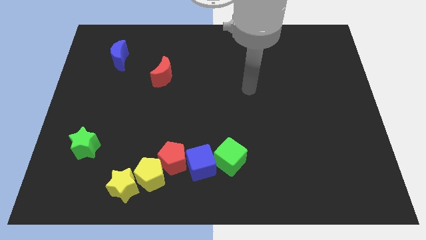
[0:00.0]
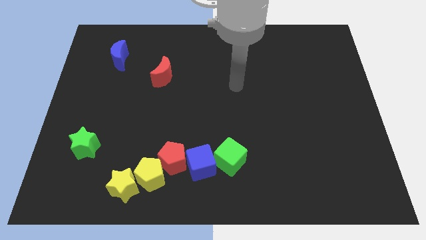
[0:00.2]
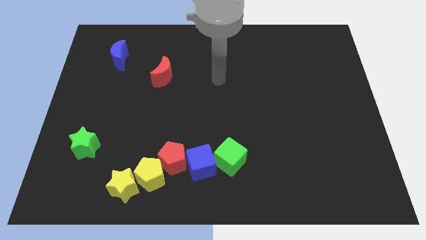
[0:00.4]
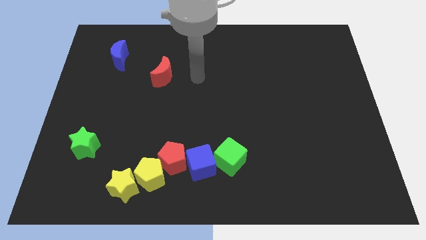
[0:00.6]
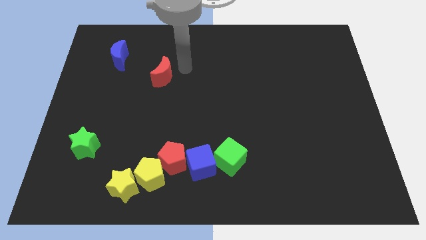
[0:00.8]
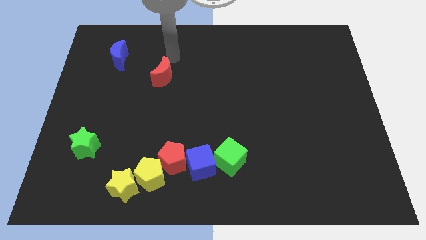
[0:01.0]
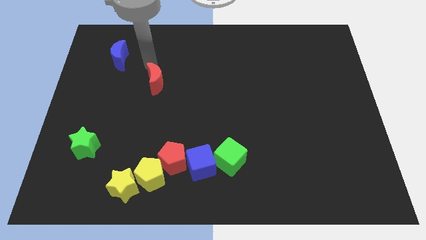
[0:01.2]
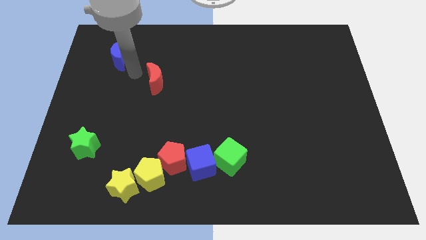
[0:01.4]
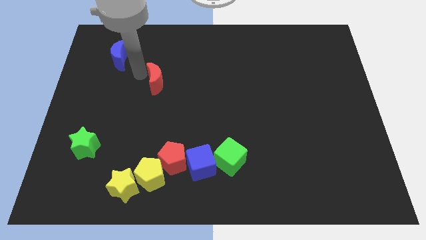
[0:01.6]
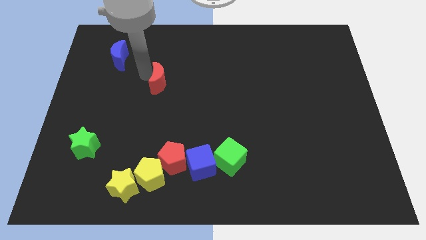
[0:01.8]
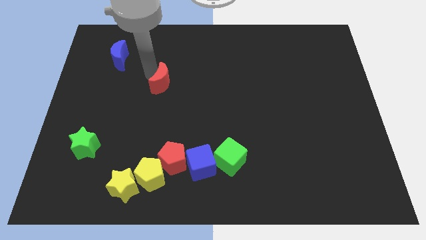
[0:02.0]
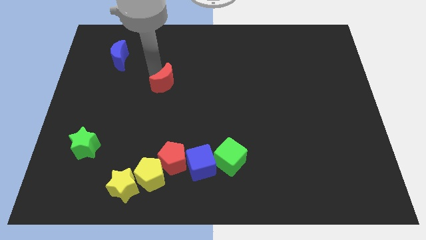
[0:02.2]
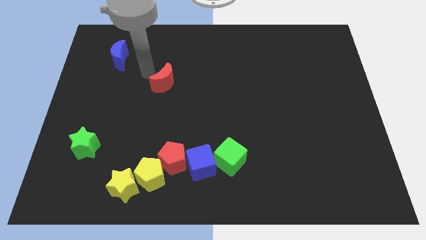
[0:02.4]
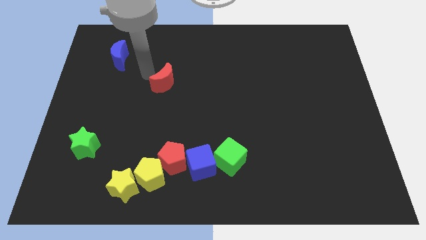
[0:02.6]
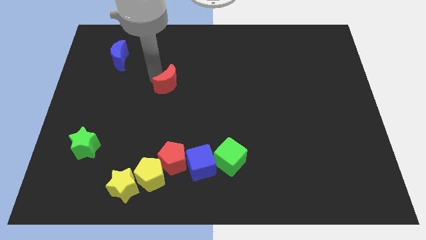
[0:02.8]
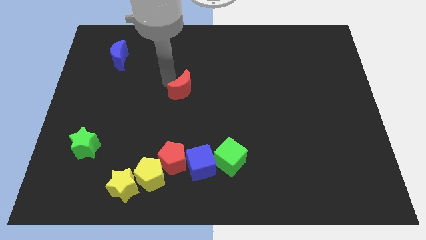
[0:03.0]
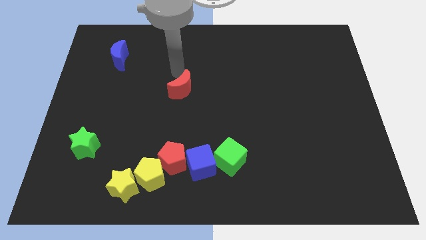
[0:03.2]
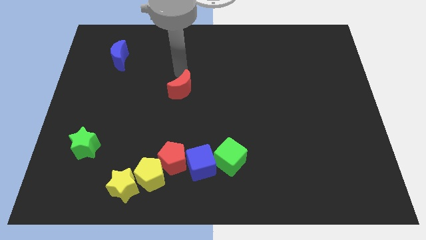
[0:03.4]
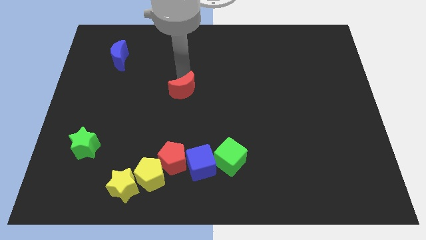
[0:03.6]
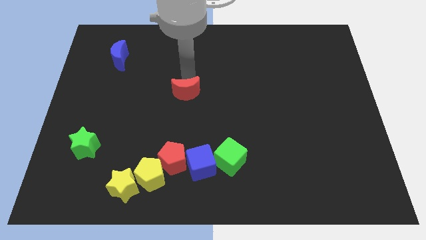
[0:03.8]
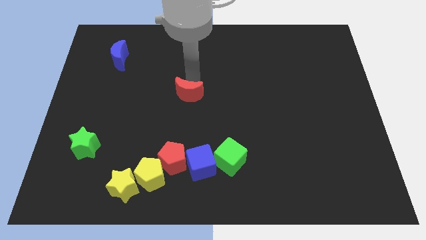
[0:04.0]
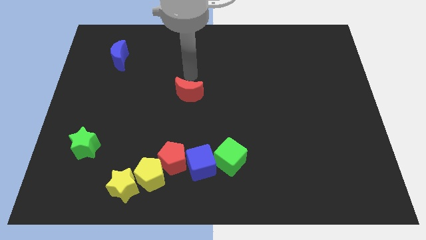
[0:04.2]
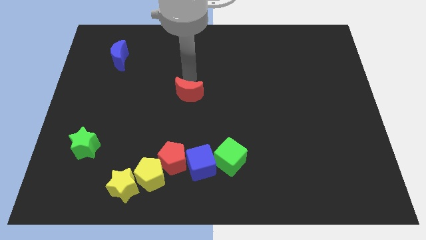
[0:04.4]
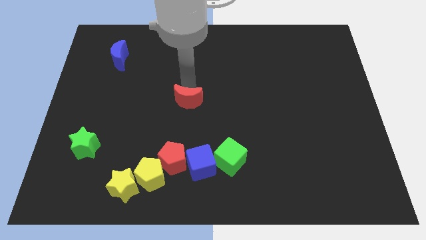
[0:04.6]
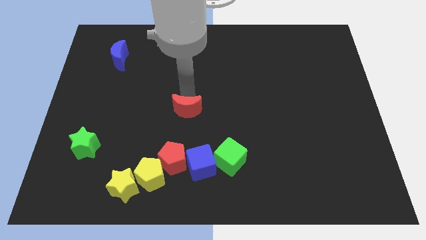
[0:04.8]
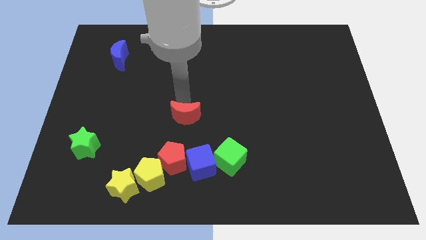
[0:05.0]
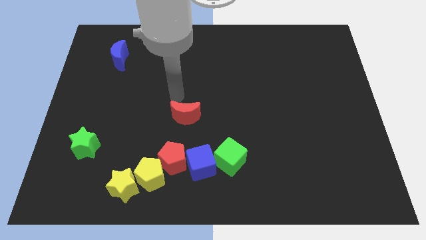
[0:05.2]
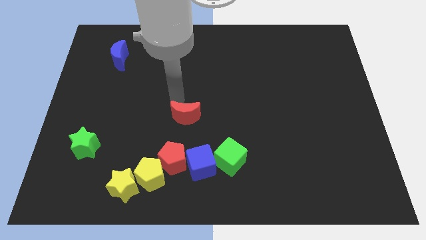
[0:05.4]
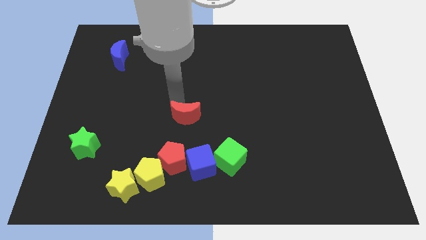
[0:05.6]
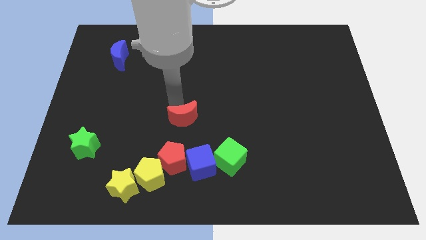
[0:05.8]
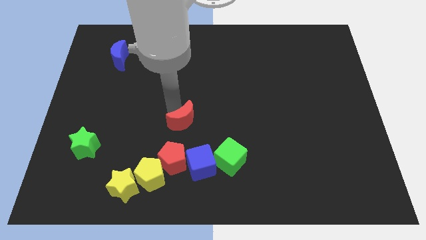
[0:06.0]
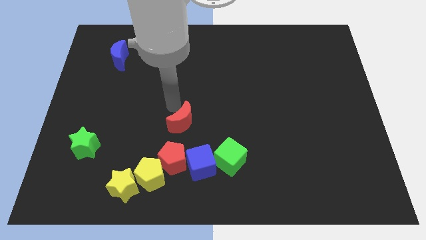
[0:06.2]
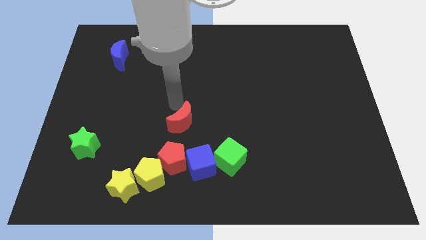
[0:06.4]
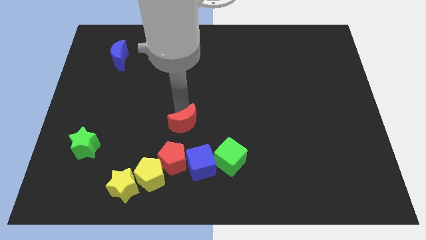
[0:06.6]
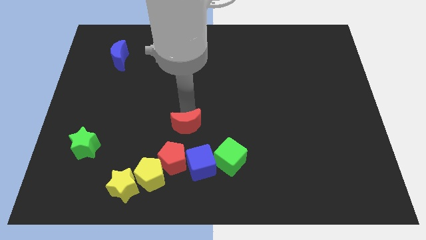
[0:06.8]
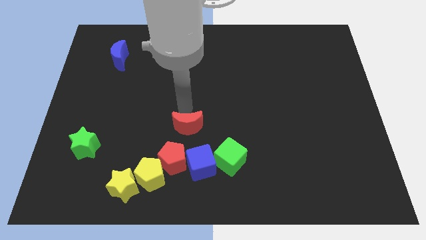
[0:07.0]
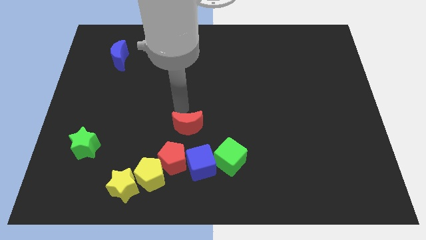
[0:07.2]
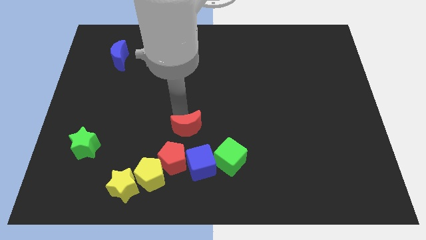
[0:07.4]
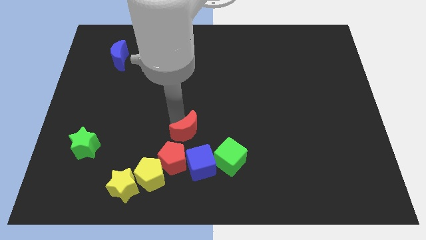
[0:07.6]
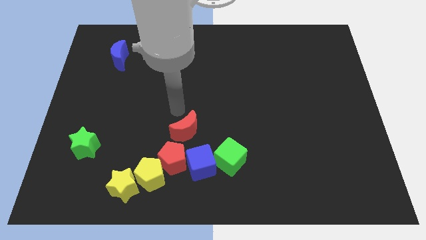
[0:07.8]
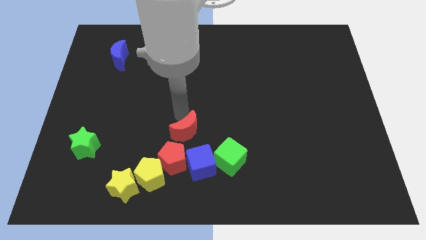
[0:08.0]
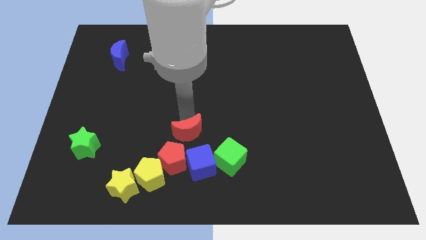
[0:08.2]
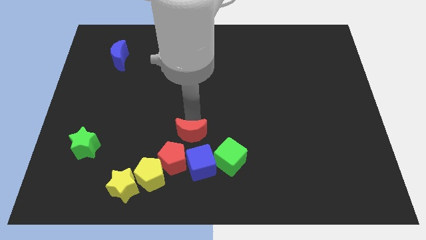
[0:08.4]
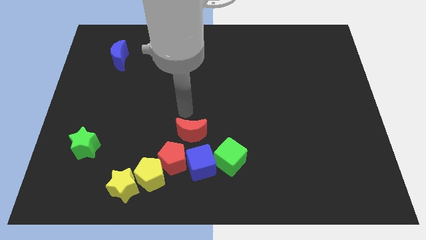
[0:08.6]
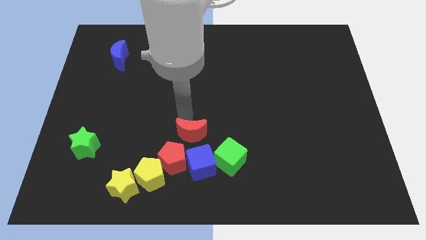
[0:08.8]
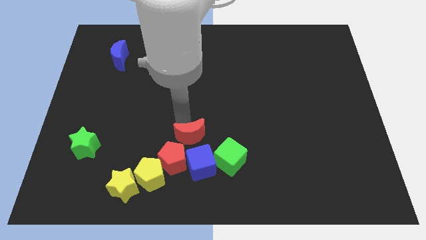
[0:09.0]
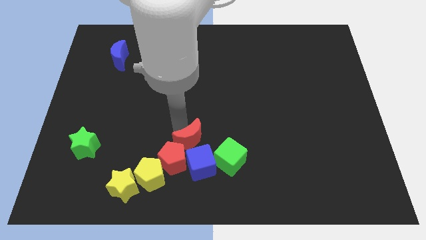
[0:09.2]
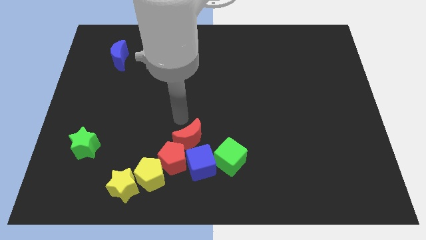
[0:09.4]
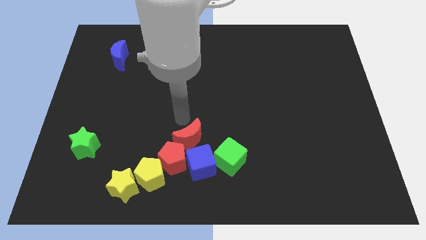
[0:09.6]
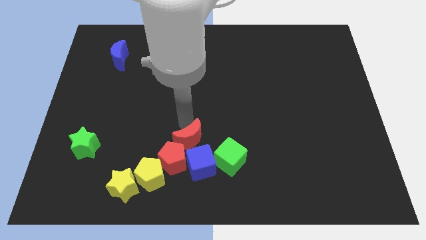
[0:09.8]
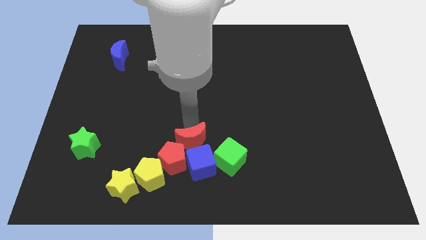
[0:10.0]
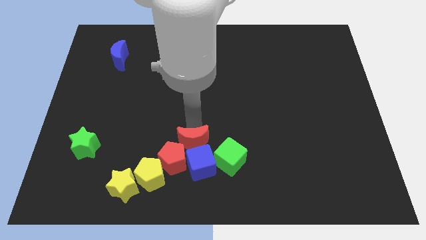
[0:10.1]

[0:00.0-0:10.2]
put the red moon next to the blue cube

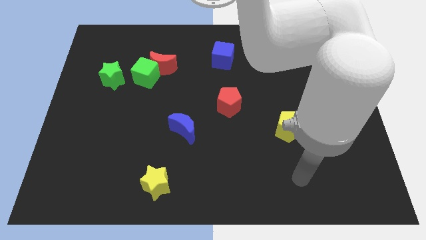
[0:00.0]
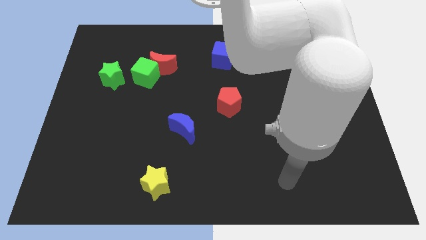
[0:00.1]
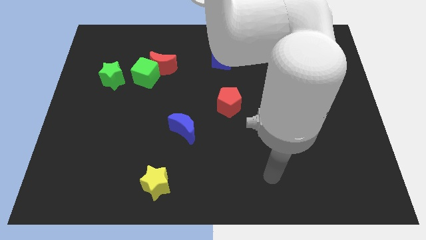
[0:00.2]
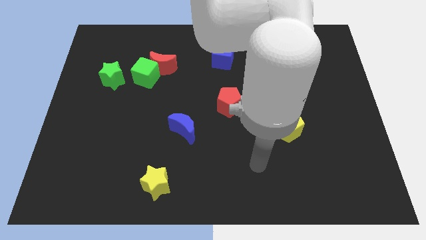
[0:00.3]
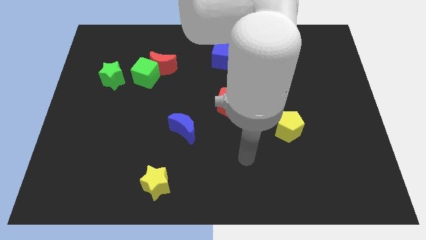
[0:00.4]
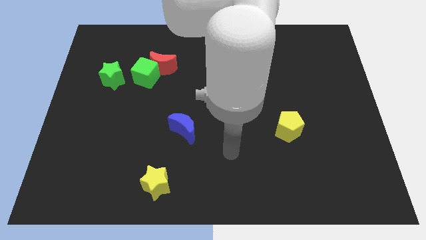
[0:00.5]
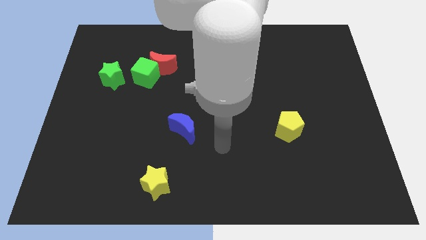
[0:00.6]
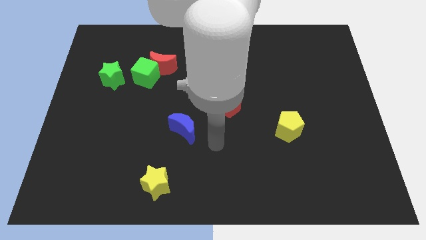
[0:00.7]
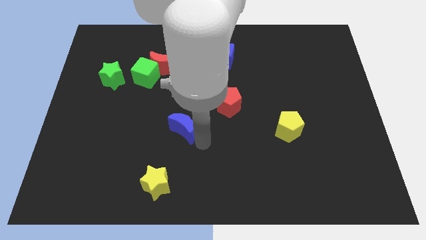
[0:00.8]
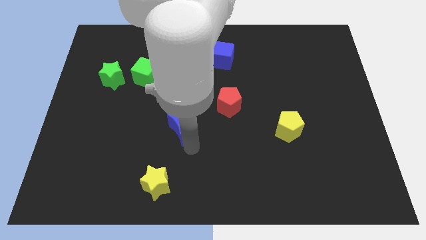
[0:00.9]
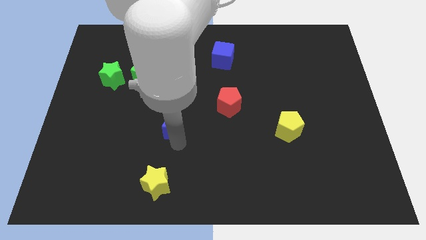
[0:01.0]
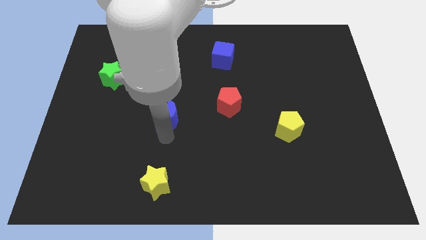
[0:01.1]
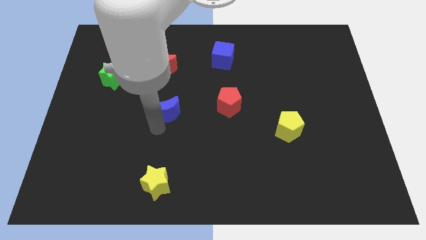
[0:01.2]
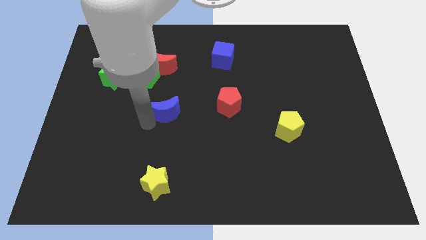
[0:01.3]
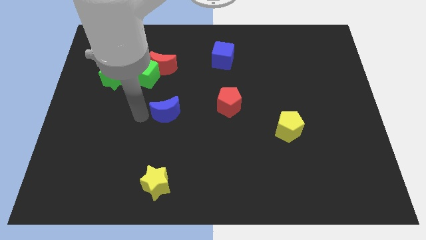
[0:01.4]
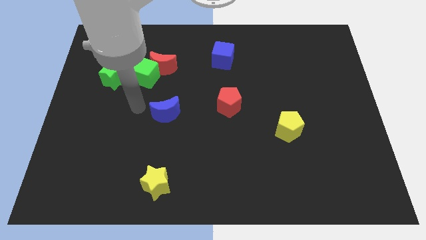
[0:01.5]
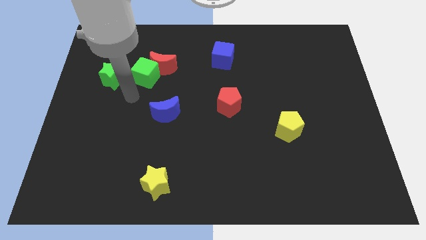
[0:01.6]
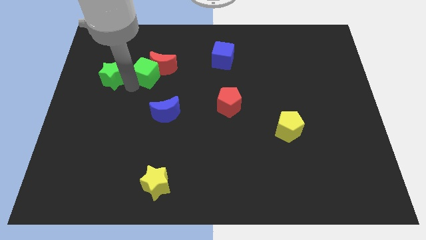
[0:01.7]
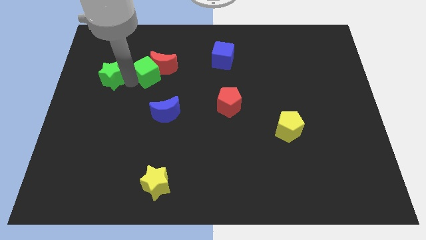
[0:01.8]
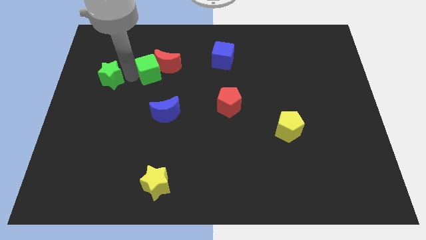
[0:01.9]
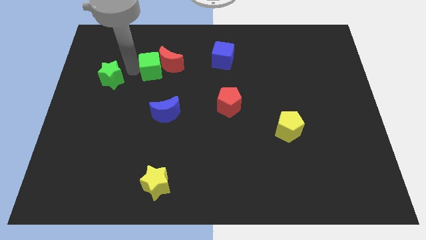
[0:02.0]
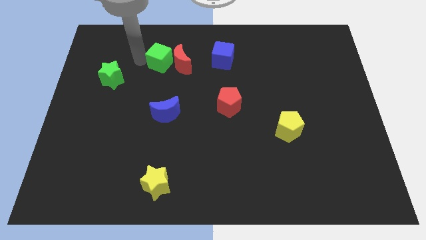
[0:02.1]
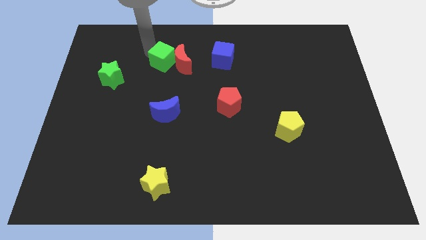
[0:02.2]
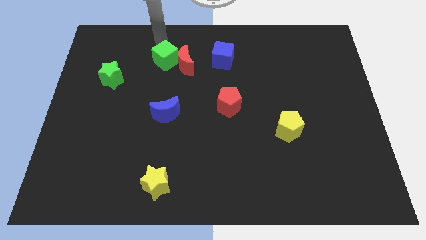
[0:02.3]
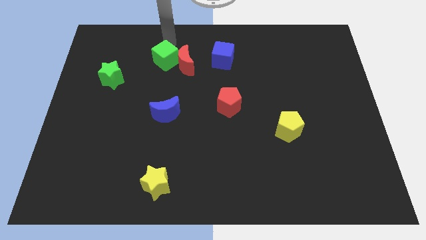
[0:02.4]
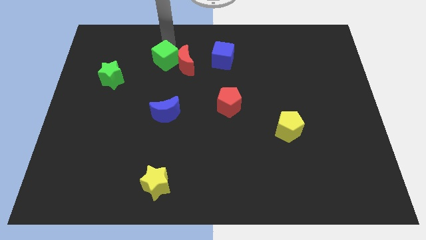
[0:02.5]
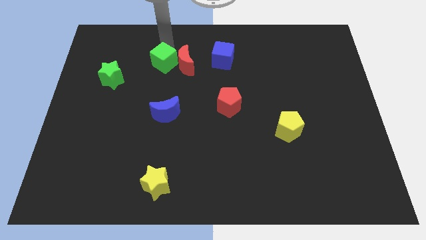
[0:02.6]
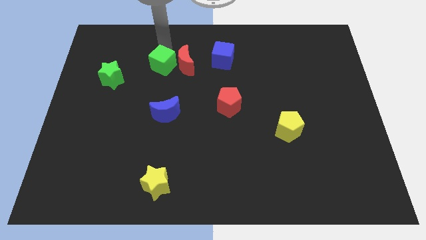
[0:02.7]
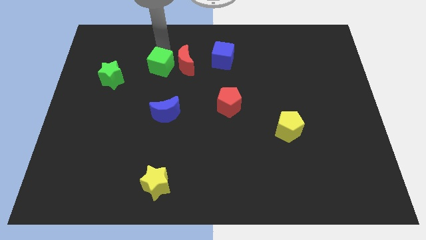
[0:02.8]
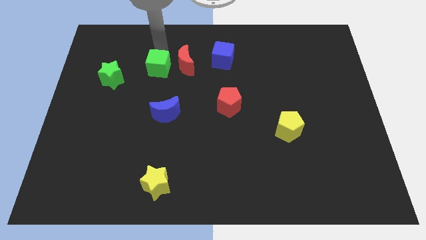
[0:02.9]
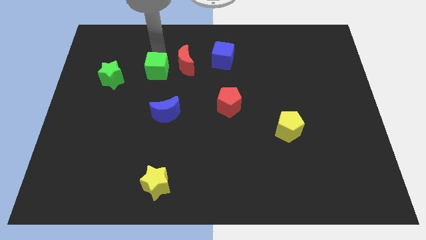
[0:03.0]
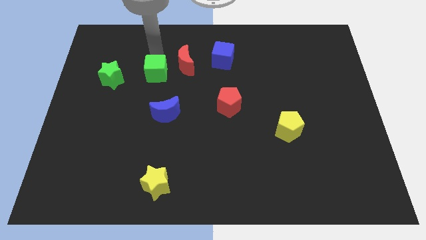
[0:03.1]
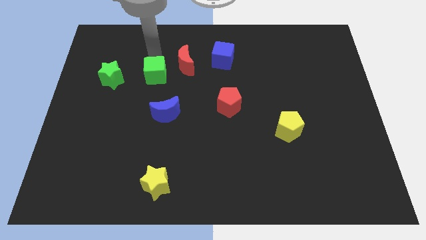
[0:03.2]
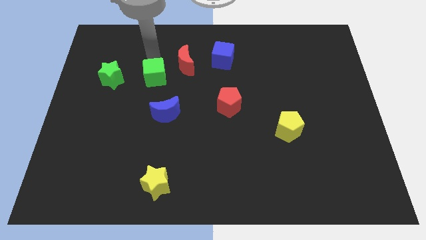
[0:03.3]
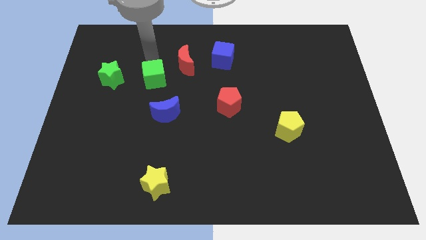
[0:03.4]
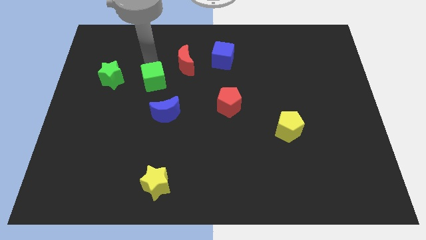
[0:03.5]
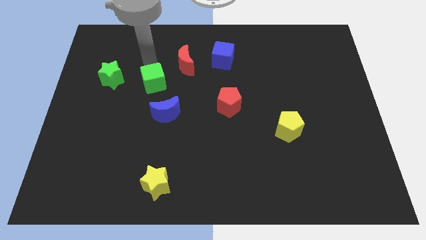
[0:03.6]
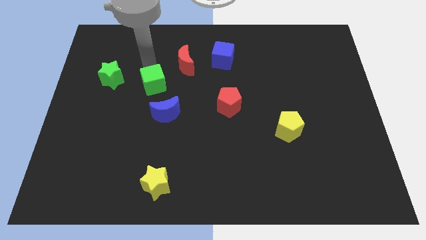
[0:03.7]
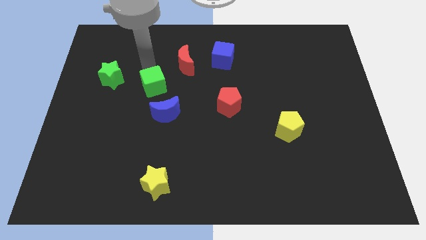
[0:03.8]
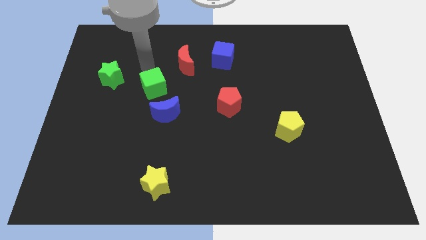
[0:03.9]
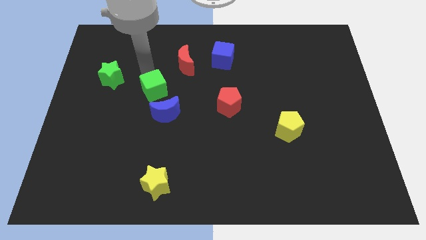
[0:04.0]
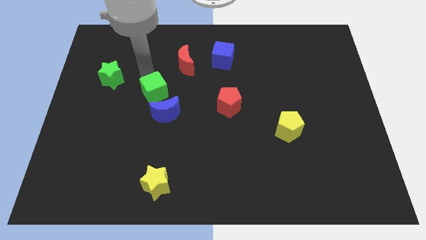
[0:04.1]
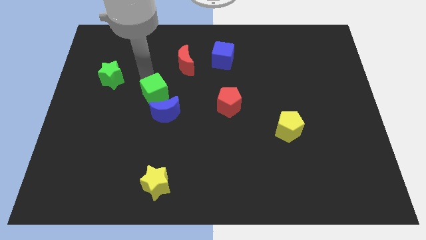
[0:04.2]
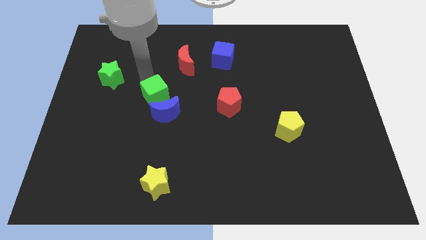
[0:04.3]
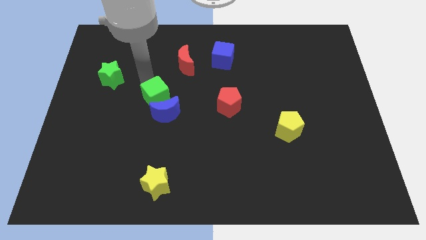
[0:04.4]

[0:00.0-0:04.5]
move the green cube close to the blue moon
